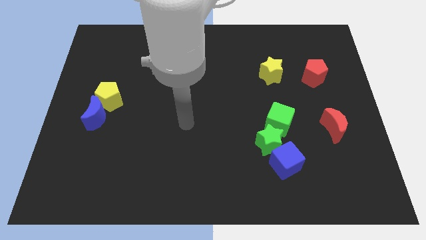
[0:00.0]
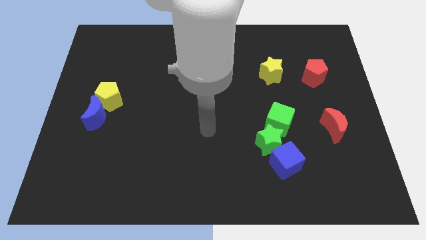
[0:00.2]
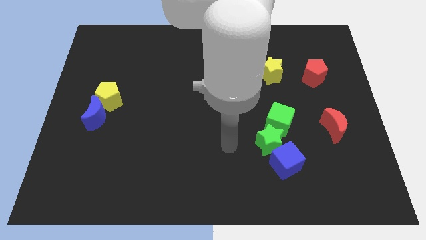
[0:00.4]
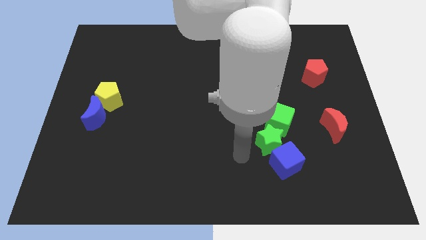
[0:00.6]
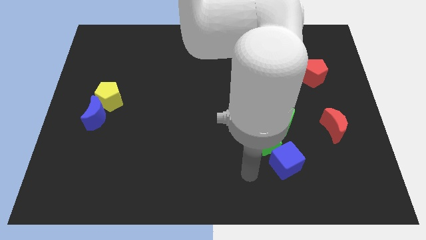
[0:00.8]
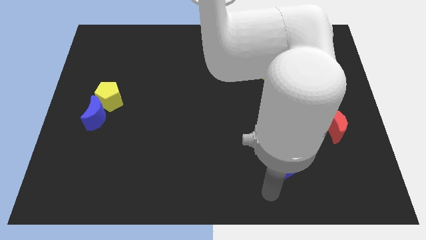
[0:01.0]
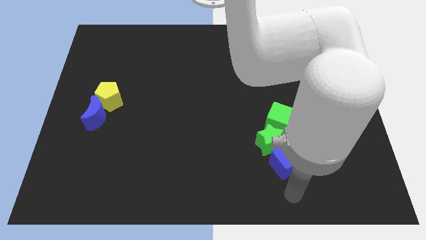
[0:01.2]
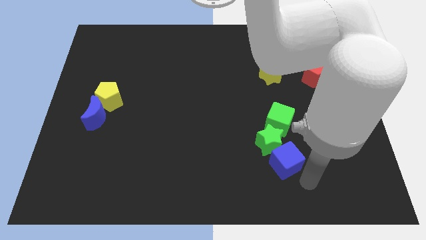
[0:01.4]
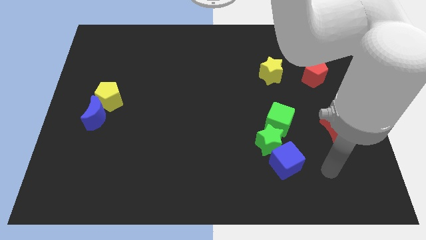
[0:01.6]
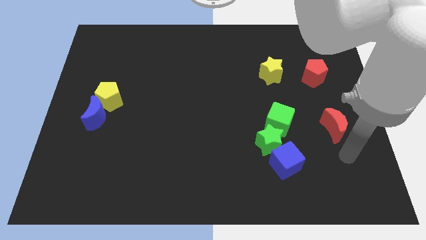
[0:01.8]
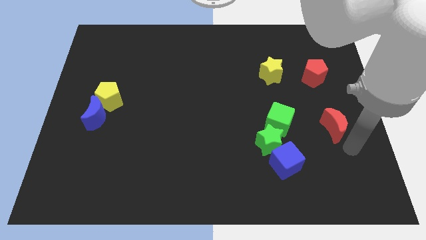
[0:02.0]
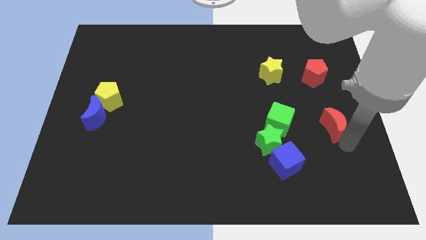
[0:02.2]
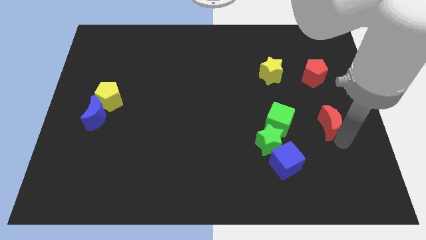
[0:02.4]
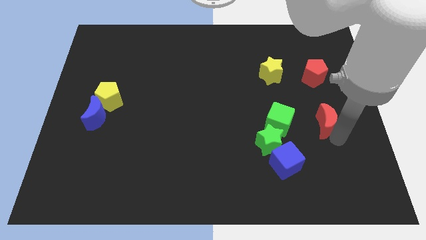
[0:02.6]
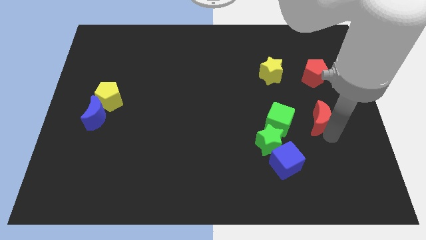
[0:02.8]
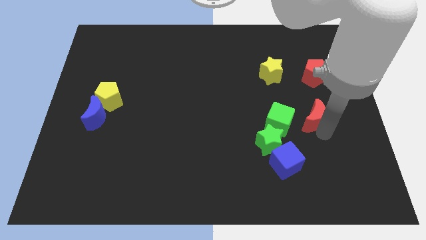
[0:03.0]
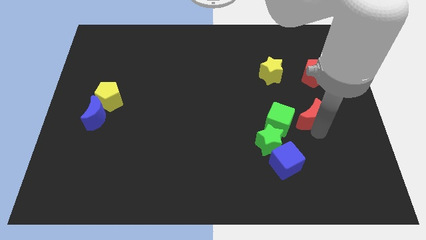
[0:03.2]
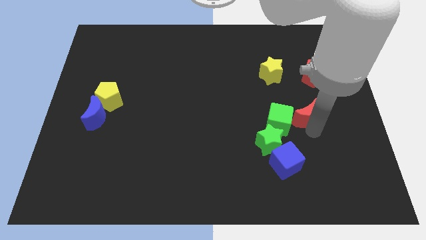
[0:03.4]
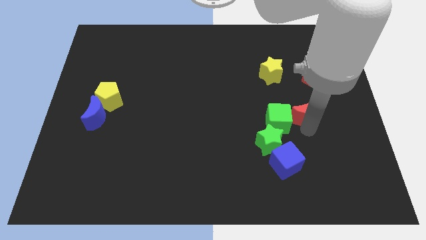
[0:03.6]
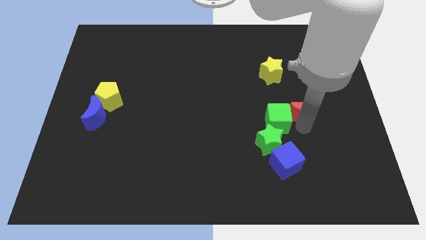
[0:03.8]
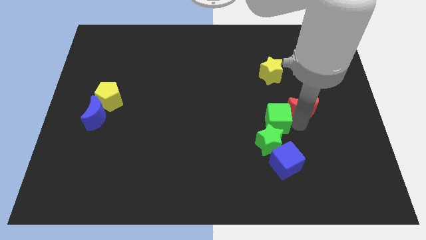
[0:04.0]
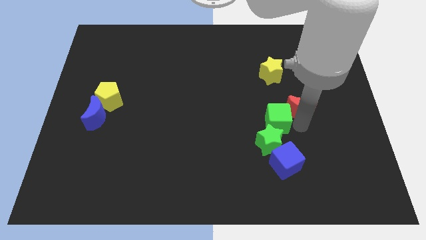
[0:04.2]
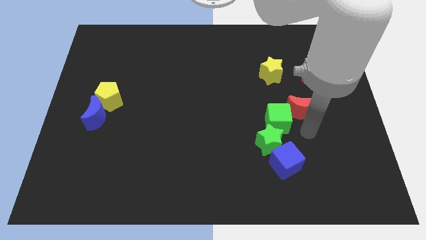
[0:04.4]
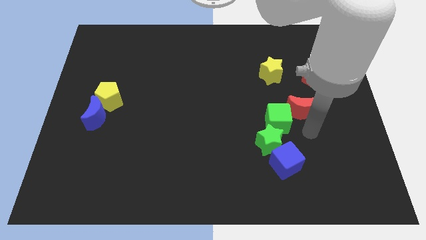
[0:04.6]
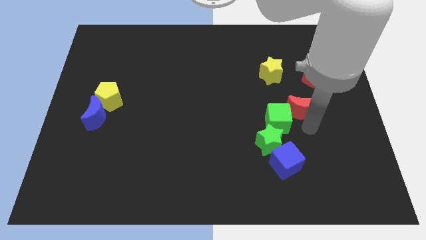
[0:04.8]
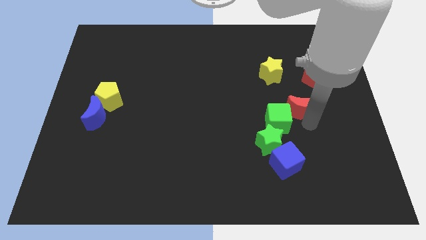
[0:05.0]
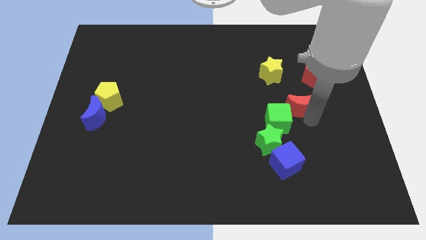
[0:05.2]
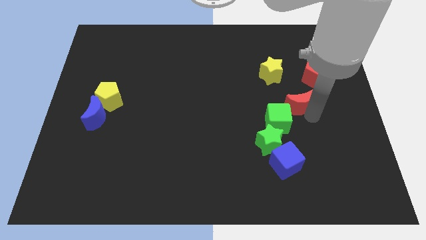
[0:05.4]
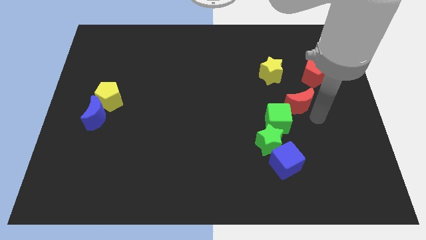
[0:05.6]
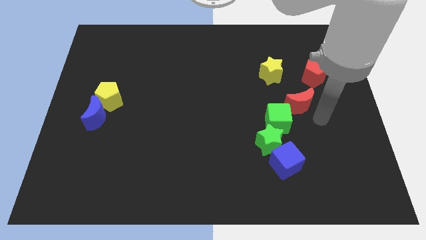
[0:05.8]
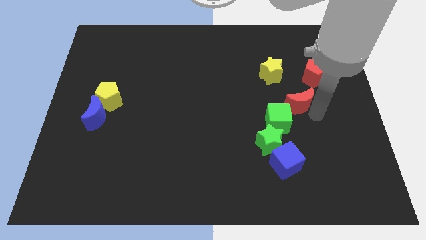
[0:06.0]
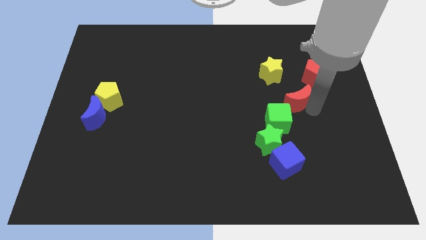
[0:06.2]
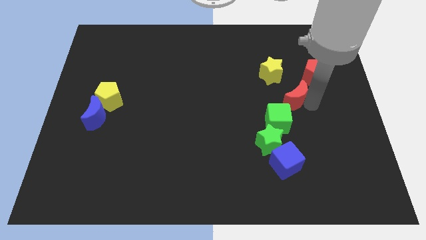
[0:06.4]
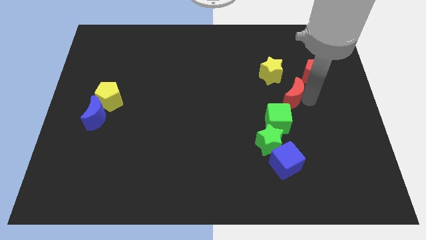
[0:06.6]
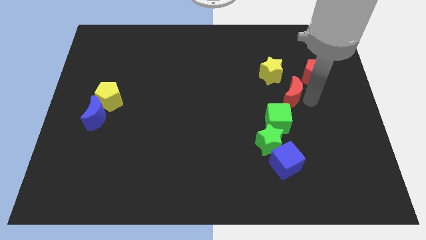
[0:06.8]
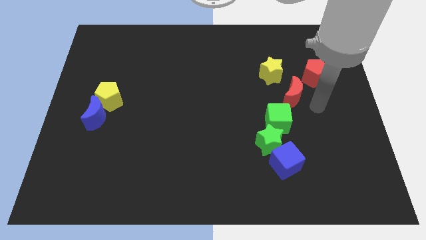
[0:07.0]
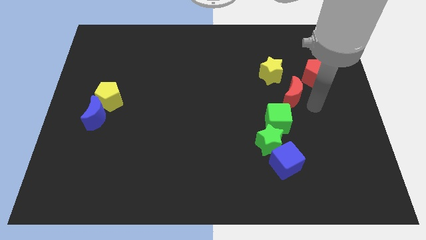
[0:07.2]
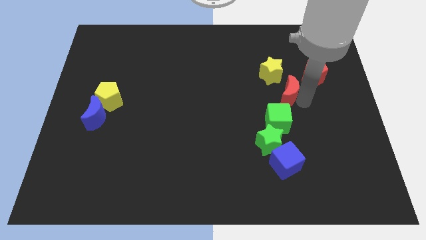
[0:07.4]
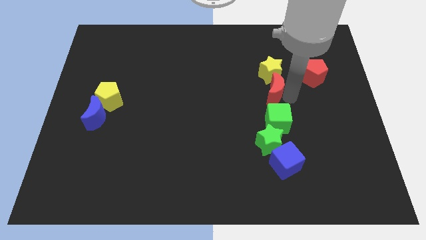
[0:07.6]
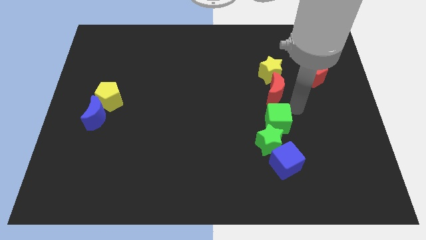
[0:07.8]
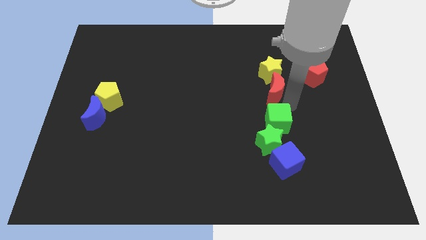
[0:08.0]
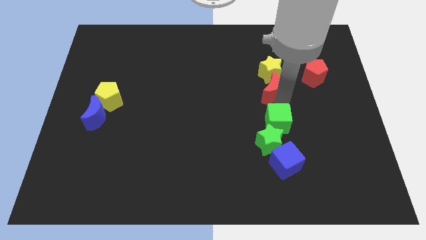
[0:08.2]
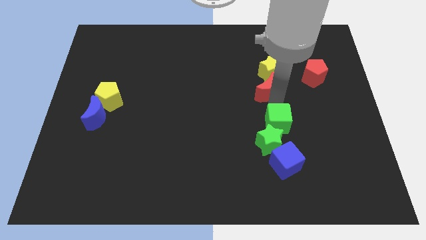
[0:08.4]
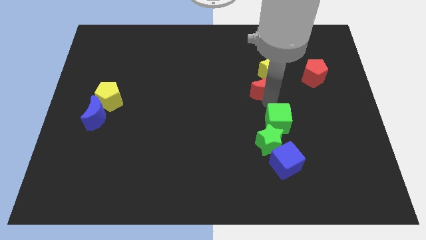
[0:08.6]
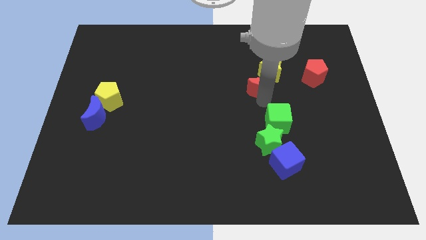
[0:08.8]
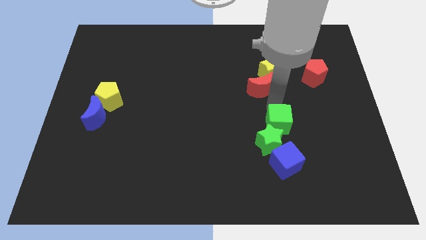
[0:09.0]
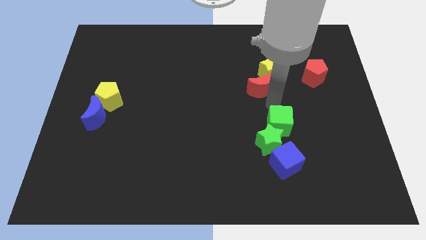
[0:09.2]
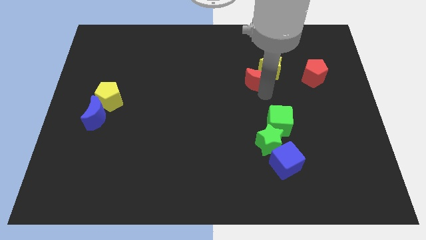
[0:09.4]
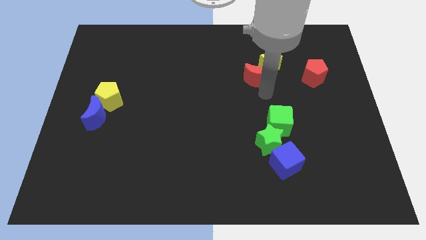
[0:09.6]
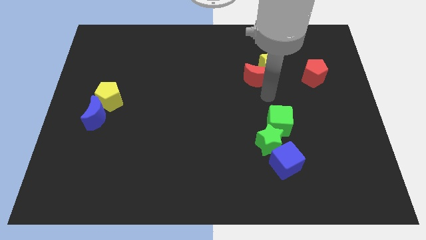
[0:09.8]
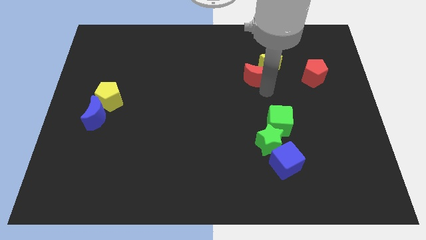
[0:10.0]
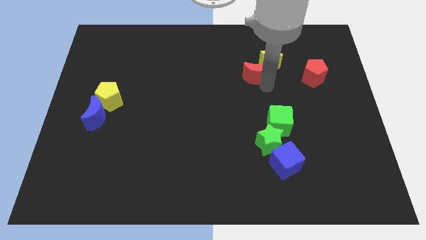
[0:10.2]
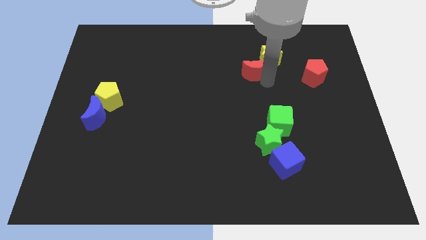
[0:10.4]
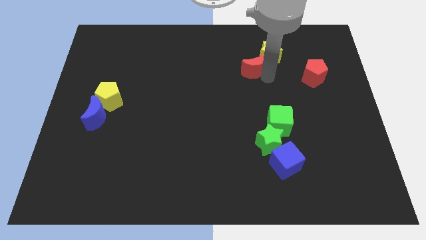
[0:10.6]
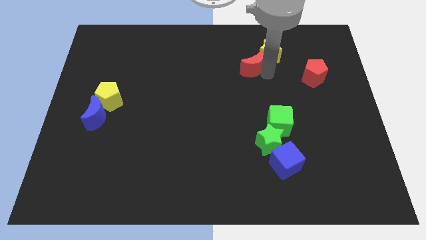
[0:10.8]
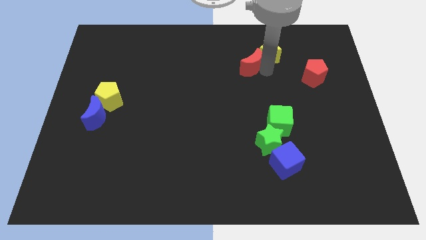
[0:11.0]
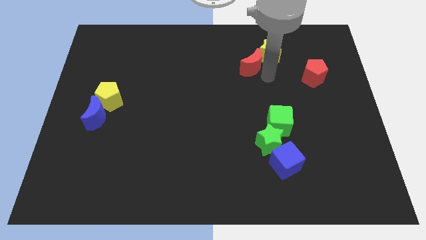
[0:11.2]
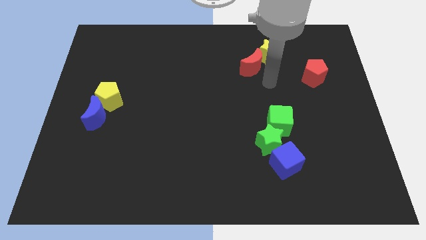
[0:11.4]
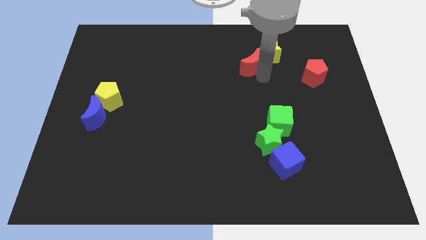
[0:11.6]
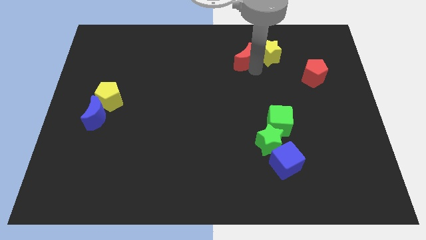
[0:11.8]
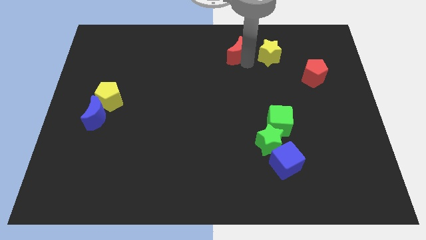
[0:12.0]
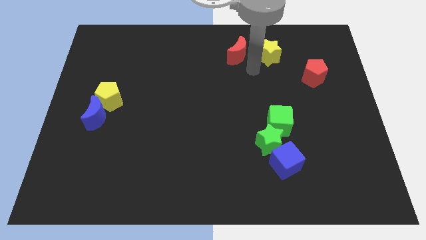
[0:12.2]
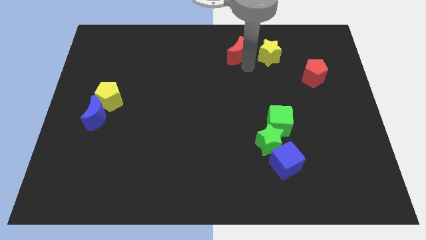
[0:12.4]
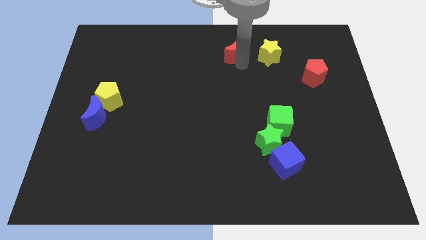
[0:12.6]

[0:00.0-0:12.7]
put the red moon to the top side
